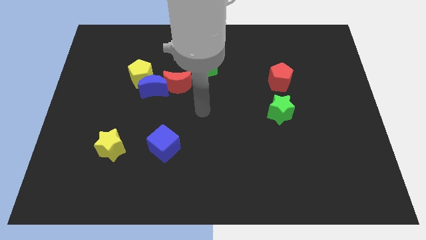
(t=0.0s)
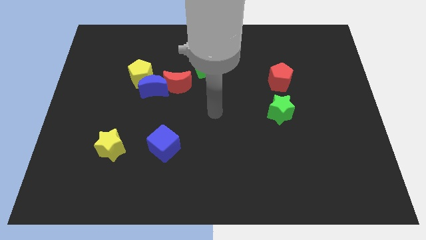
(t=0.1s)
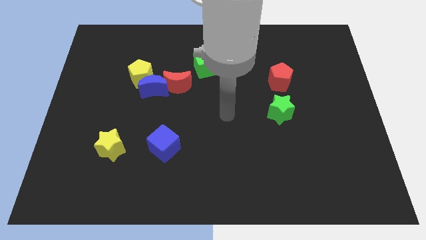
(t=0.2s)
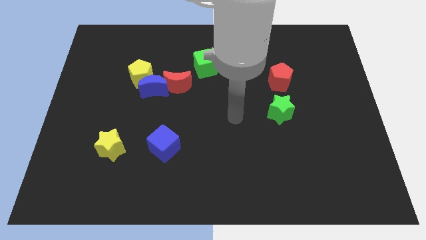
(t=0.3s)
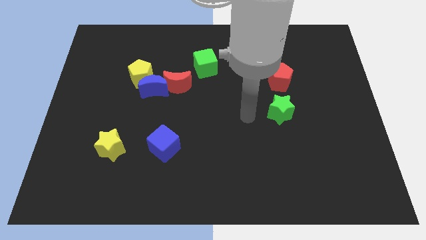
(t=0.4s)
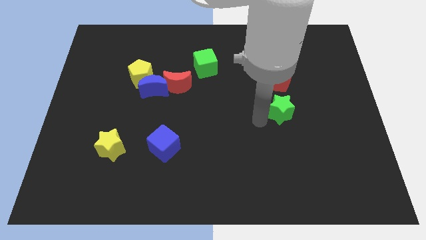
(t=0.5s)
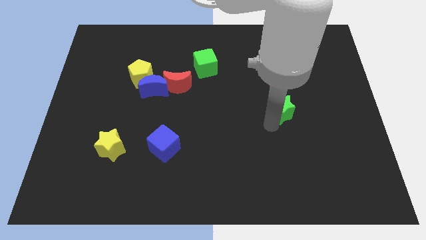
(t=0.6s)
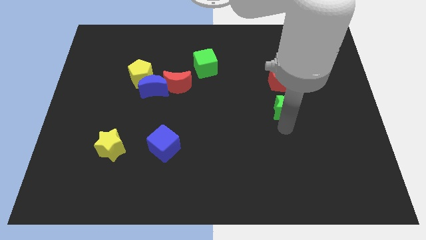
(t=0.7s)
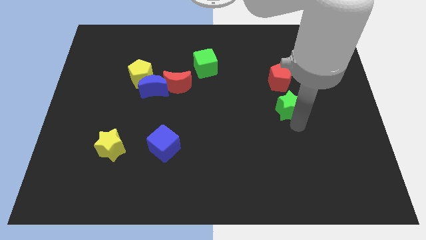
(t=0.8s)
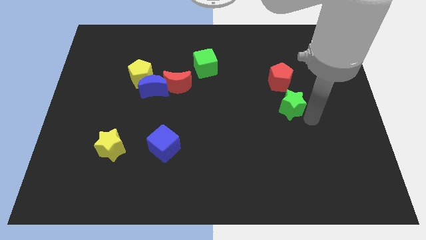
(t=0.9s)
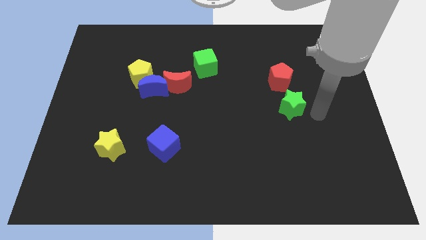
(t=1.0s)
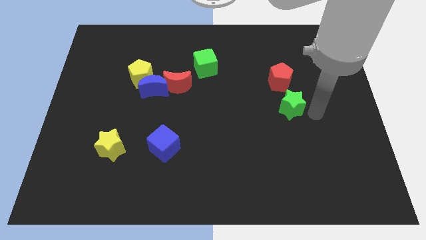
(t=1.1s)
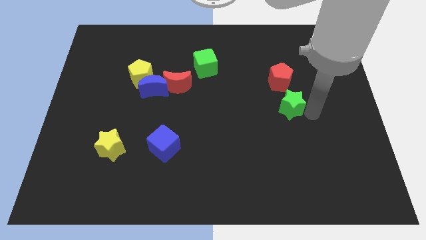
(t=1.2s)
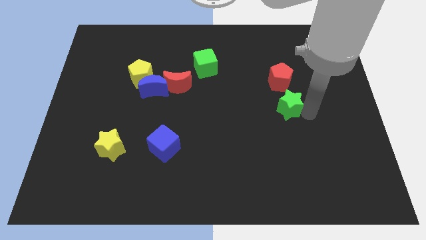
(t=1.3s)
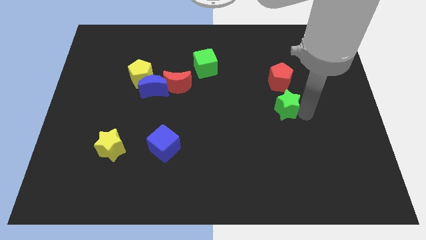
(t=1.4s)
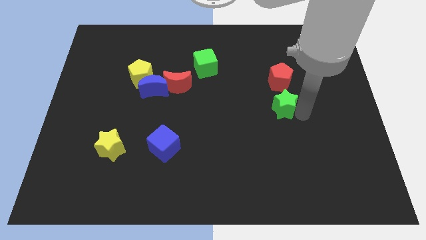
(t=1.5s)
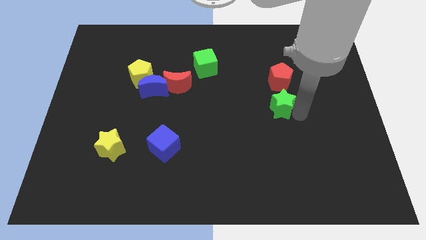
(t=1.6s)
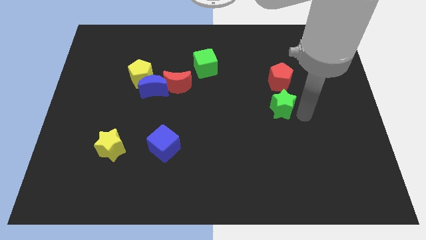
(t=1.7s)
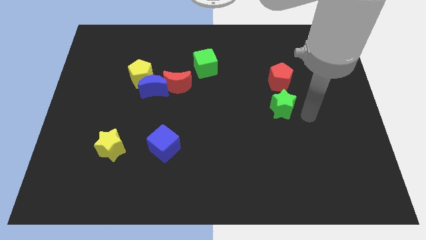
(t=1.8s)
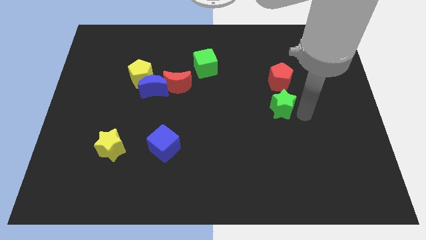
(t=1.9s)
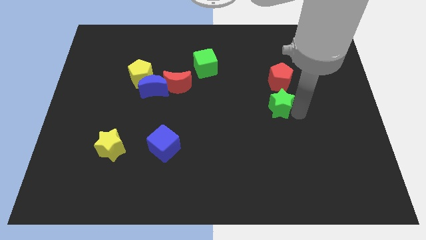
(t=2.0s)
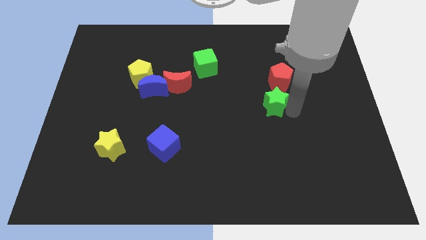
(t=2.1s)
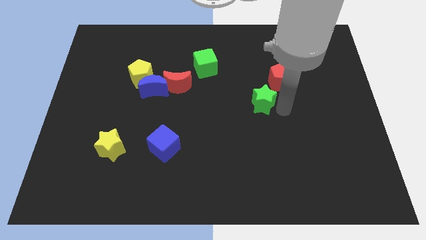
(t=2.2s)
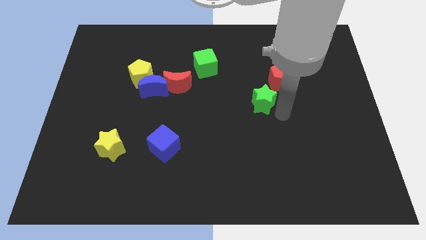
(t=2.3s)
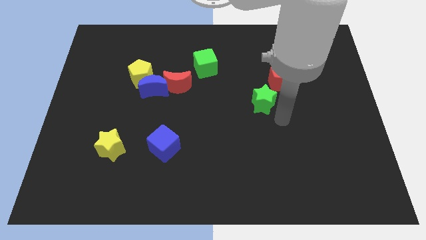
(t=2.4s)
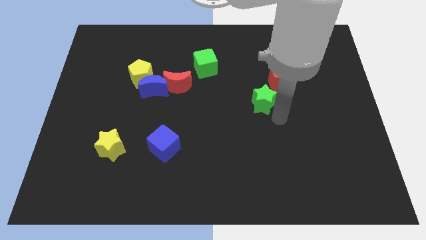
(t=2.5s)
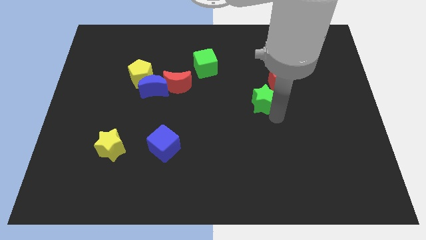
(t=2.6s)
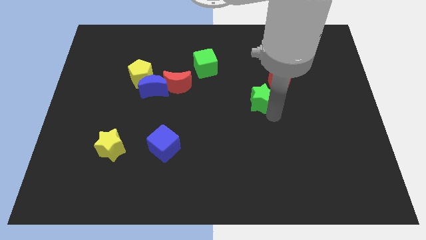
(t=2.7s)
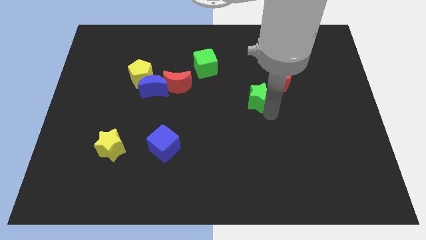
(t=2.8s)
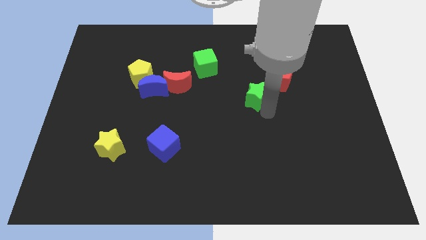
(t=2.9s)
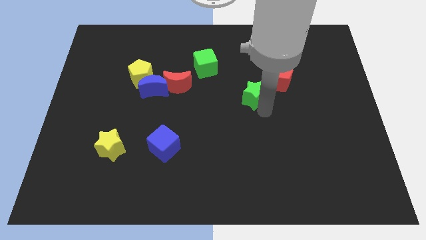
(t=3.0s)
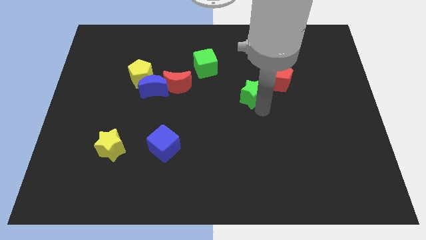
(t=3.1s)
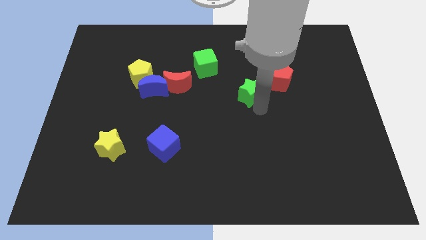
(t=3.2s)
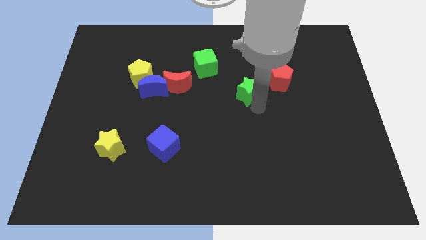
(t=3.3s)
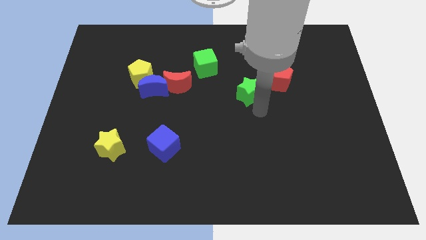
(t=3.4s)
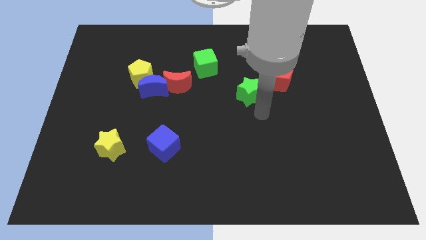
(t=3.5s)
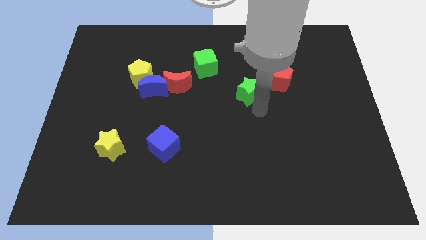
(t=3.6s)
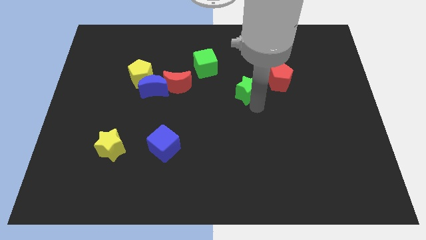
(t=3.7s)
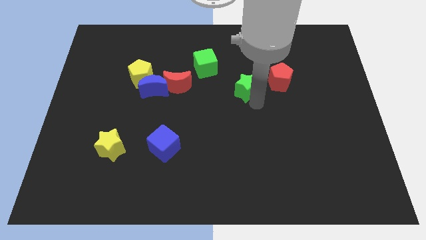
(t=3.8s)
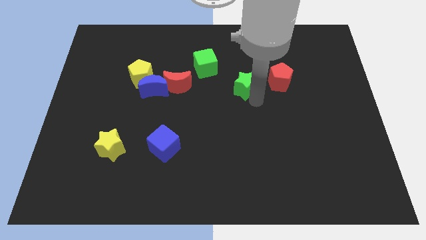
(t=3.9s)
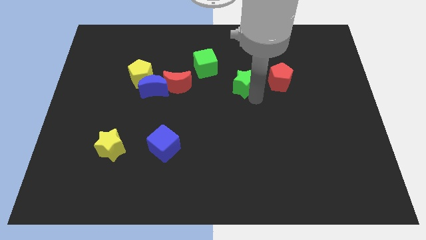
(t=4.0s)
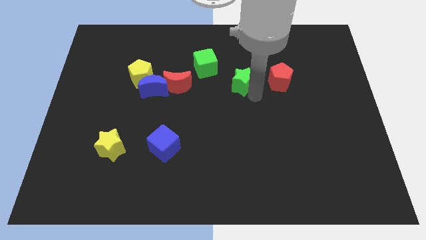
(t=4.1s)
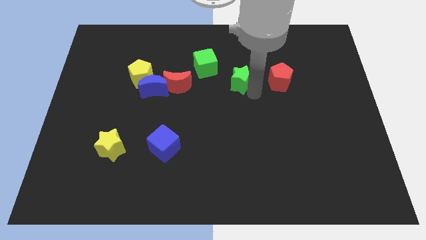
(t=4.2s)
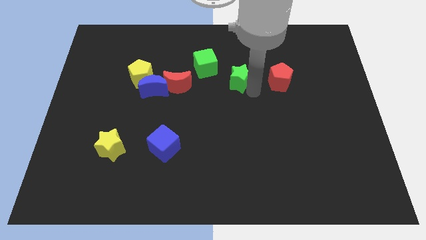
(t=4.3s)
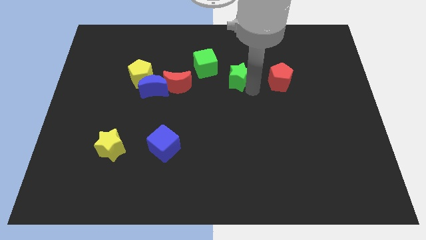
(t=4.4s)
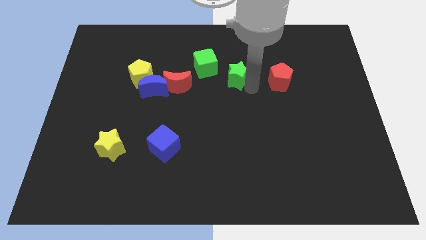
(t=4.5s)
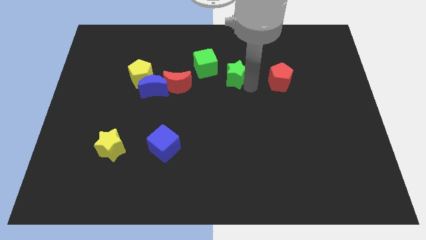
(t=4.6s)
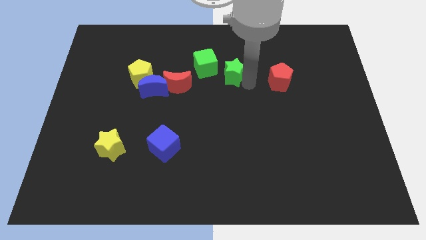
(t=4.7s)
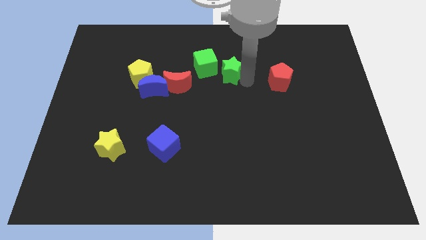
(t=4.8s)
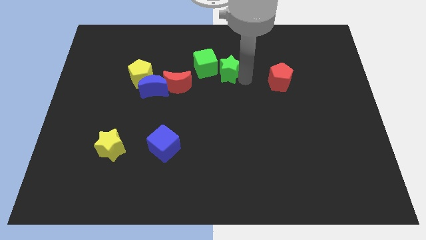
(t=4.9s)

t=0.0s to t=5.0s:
put the green star close to the green cube

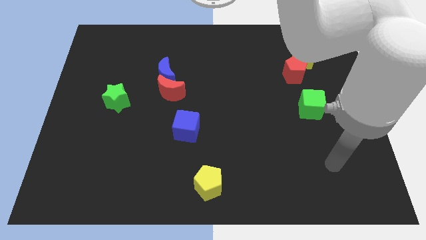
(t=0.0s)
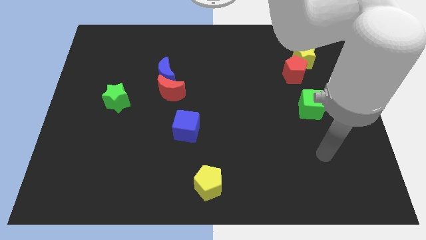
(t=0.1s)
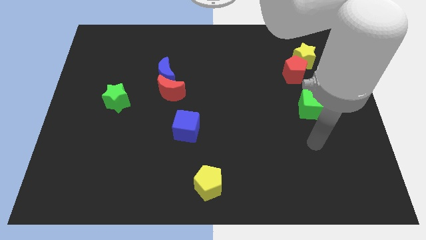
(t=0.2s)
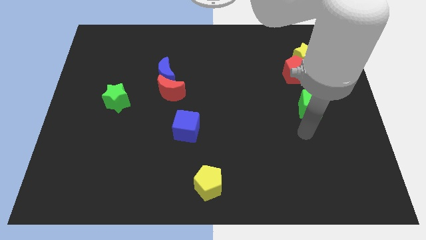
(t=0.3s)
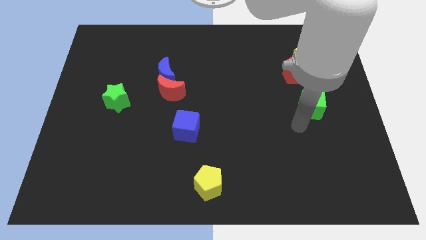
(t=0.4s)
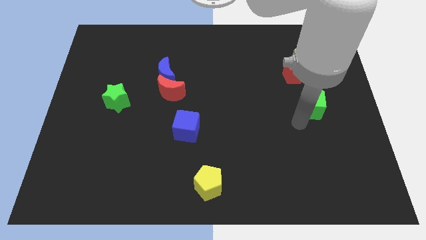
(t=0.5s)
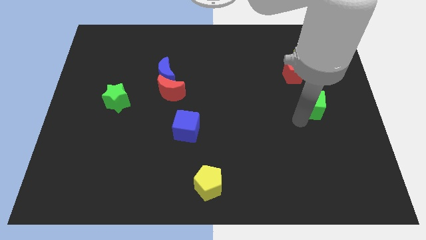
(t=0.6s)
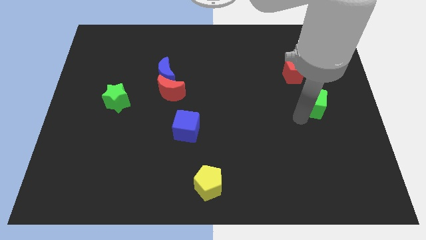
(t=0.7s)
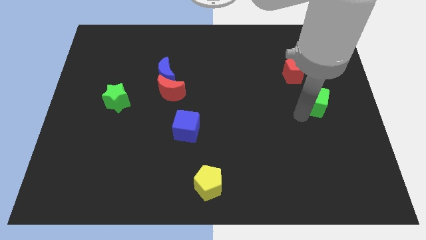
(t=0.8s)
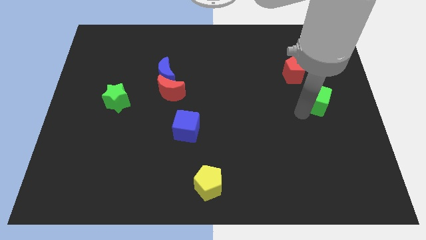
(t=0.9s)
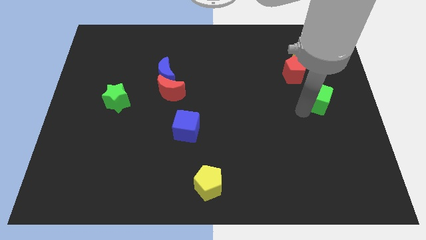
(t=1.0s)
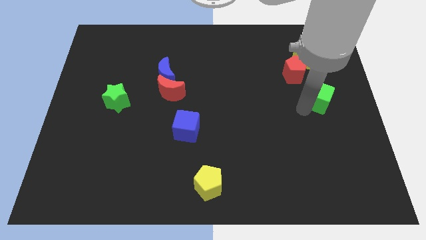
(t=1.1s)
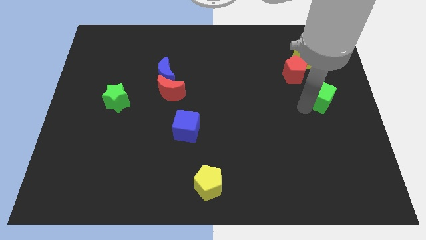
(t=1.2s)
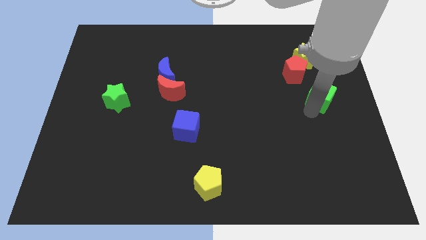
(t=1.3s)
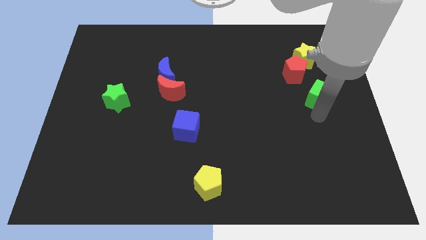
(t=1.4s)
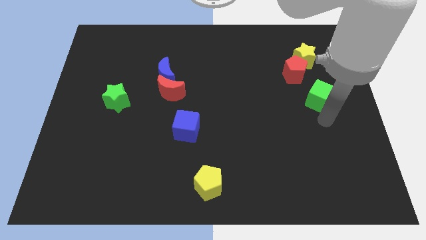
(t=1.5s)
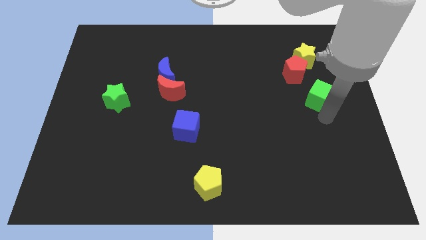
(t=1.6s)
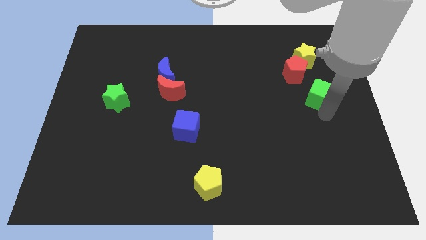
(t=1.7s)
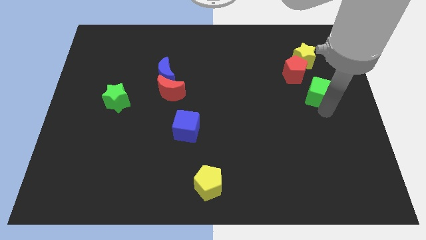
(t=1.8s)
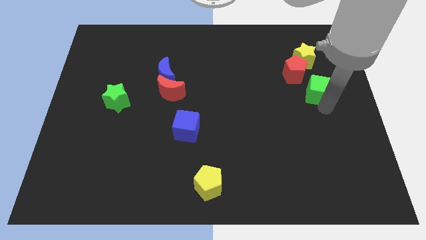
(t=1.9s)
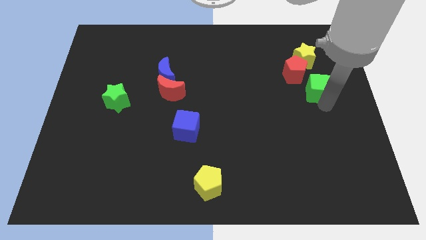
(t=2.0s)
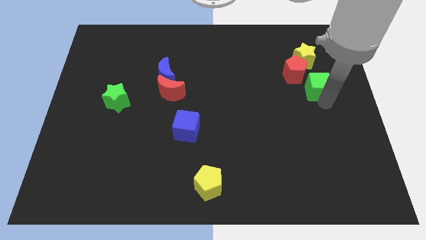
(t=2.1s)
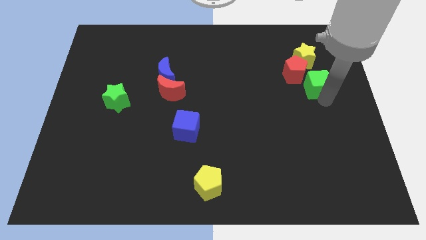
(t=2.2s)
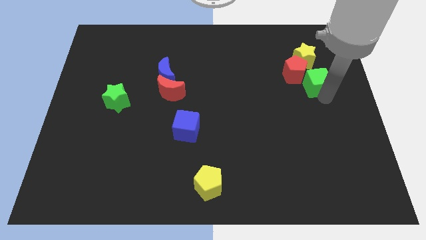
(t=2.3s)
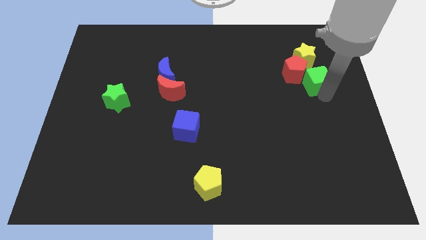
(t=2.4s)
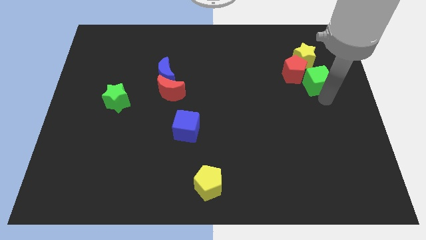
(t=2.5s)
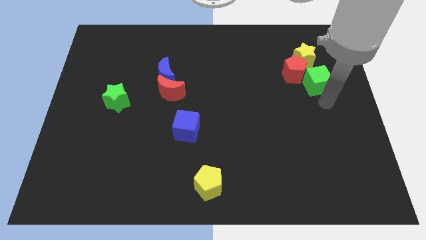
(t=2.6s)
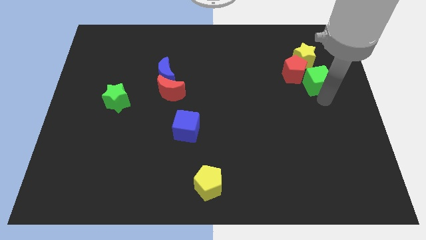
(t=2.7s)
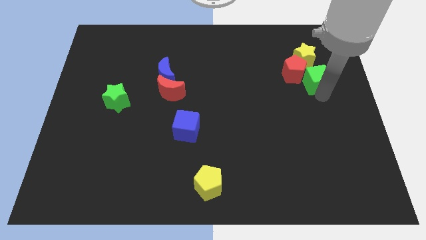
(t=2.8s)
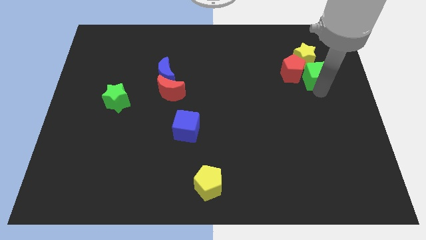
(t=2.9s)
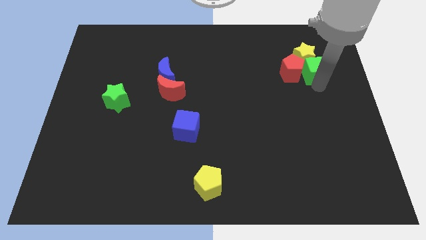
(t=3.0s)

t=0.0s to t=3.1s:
put the green cube close to the yellow star

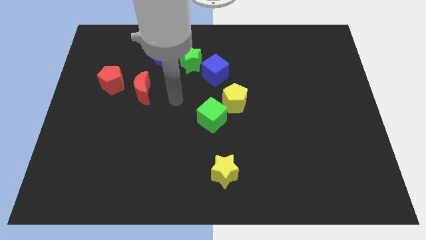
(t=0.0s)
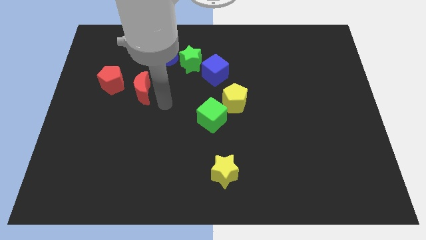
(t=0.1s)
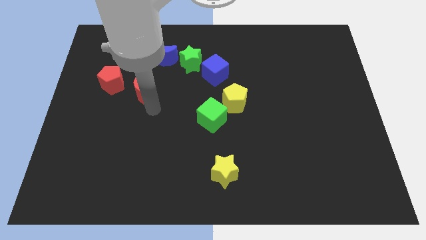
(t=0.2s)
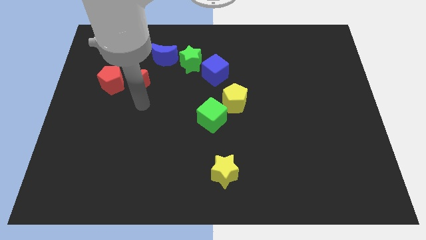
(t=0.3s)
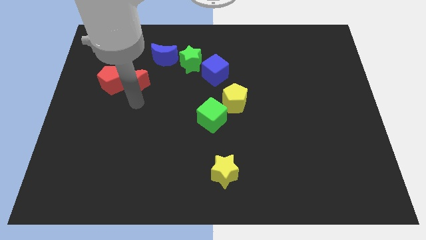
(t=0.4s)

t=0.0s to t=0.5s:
move the red pentagon to the red moon
